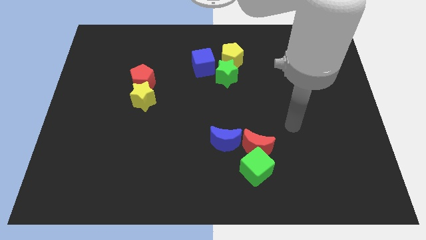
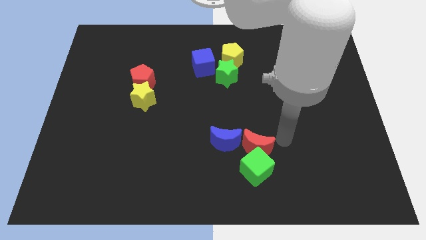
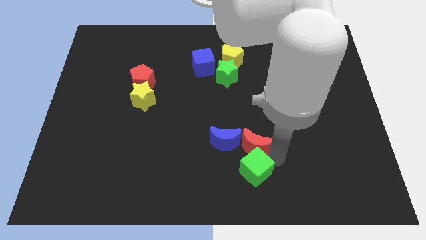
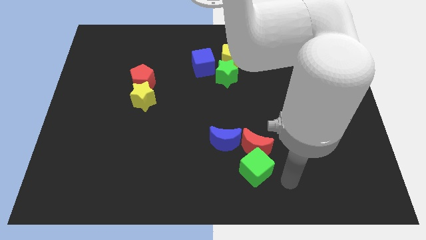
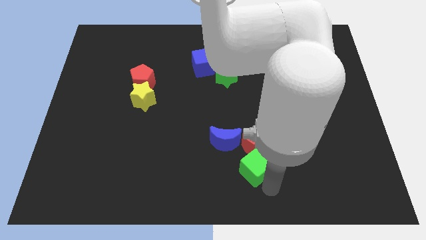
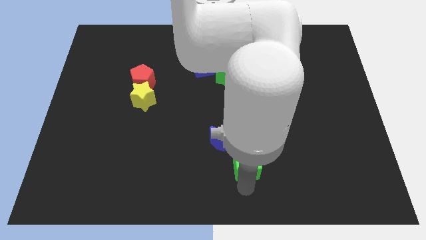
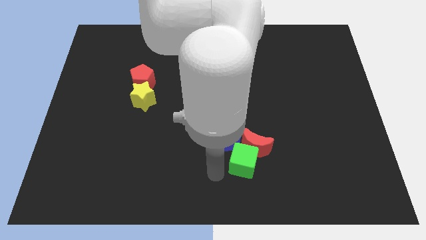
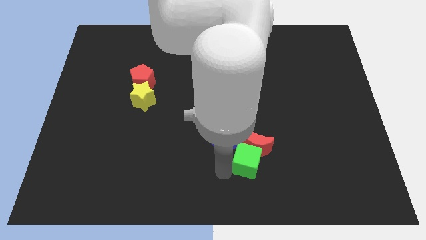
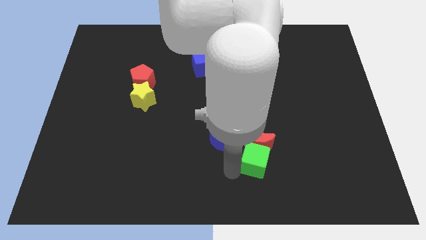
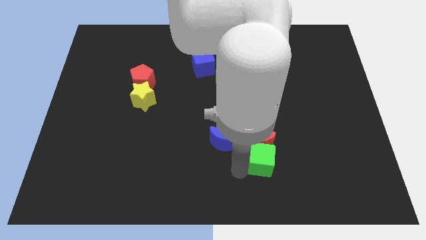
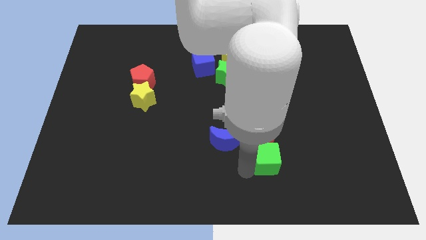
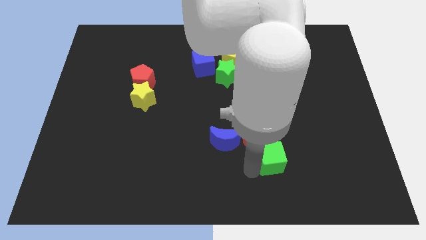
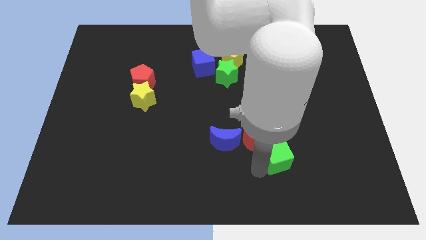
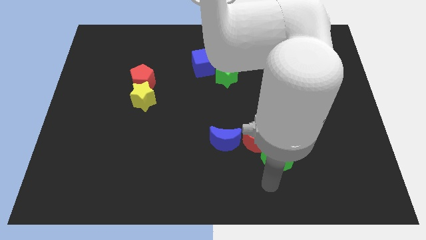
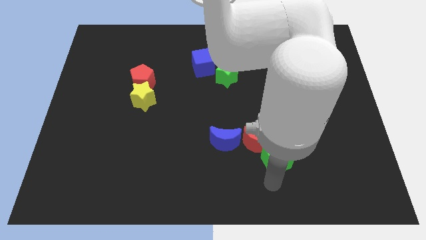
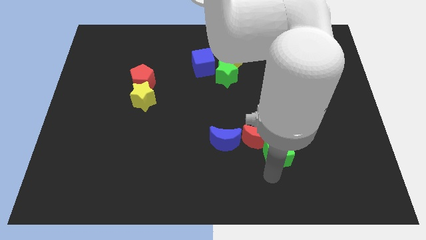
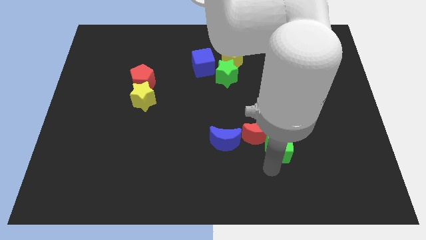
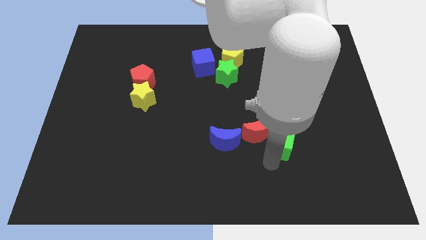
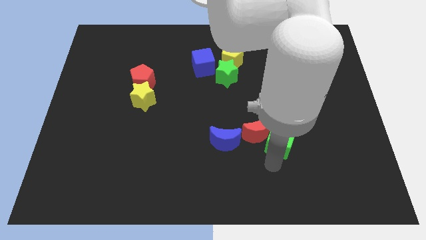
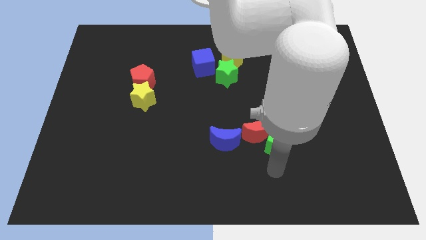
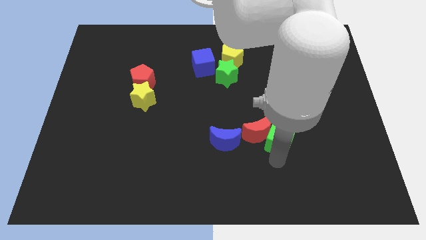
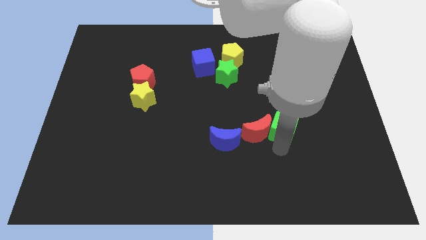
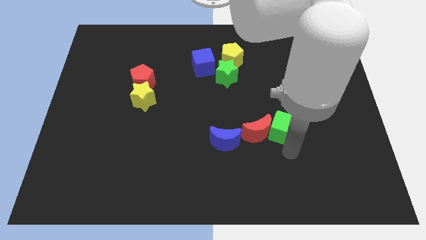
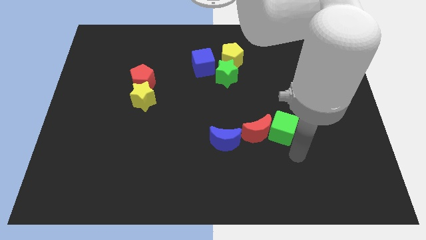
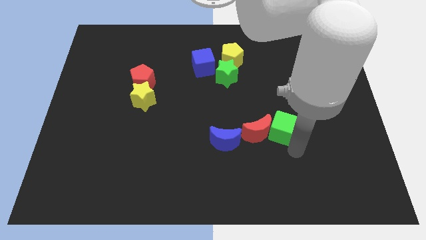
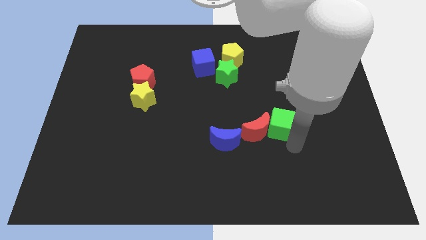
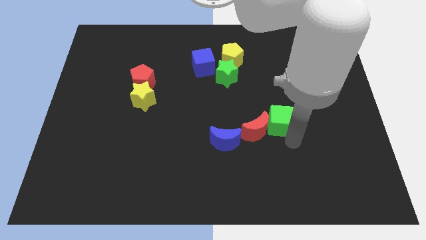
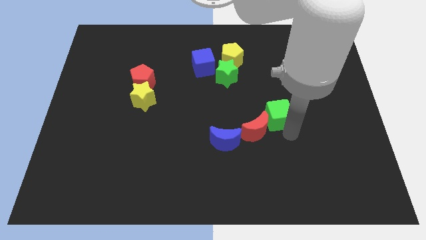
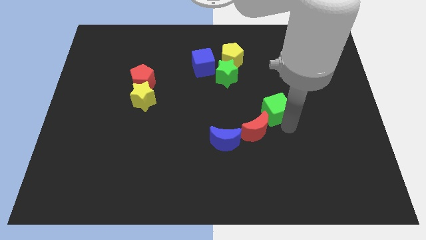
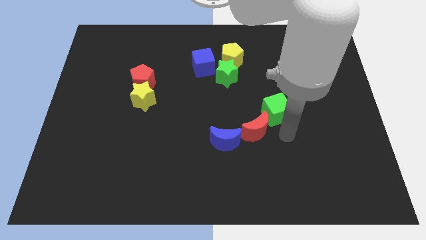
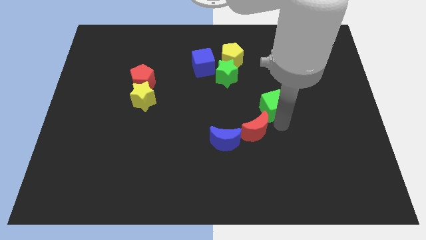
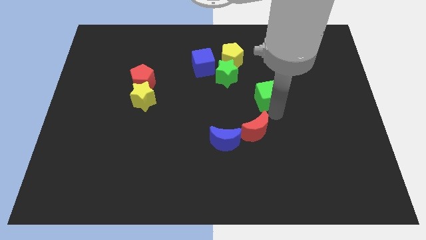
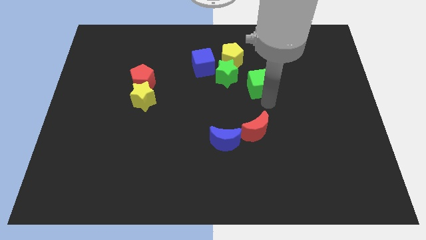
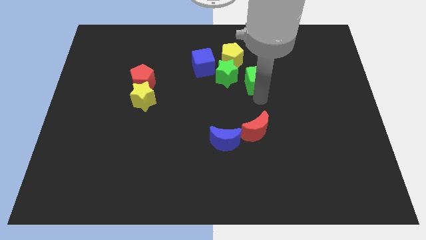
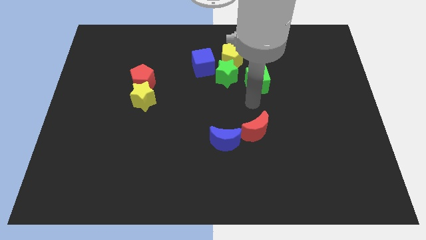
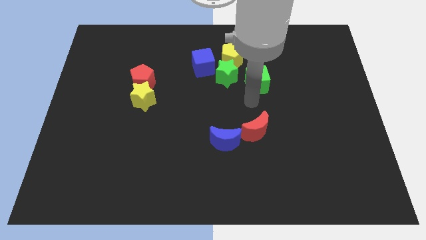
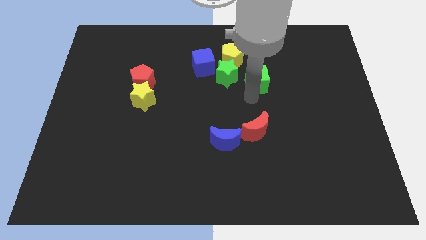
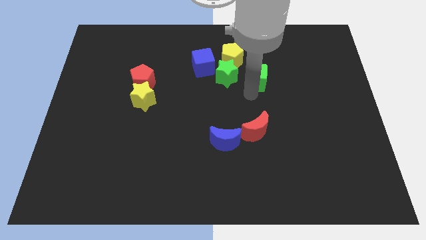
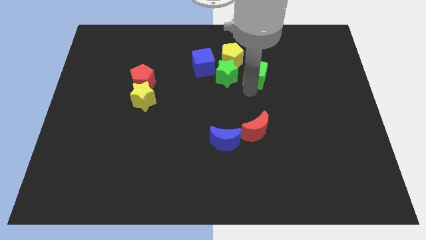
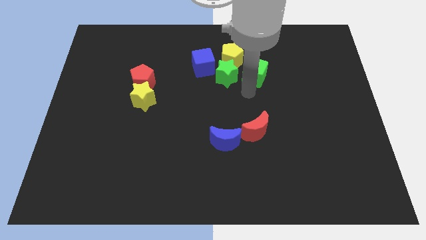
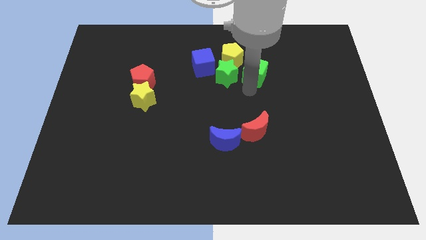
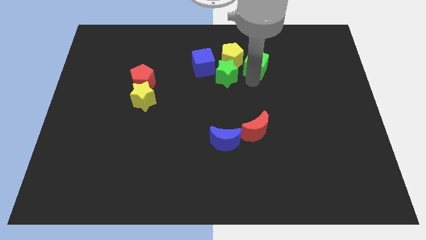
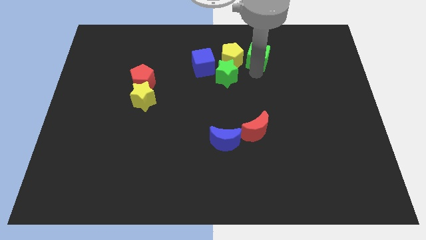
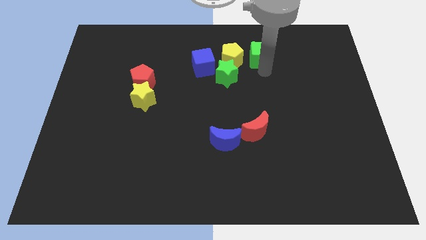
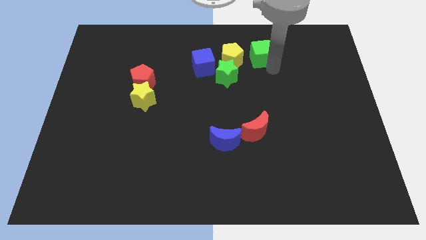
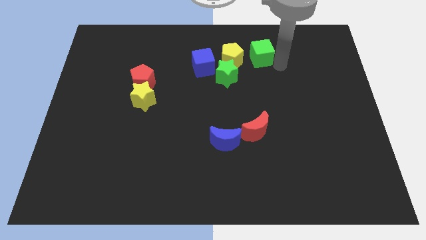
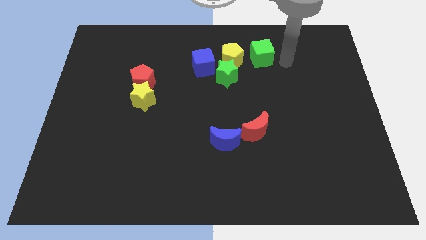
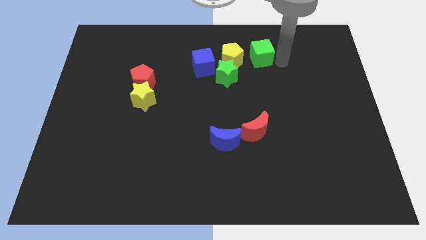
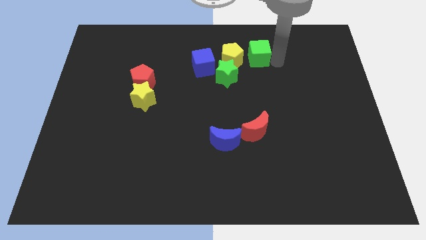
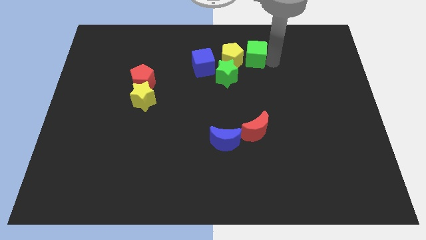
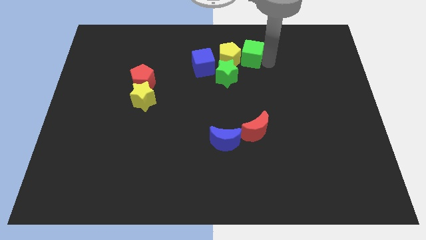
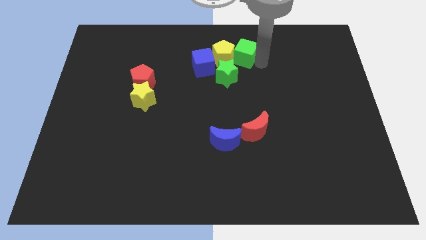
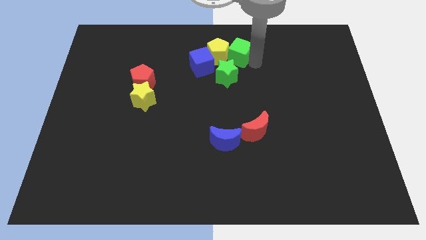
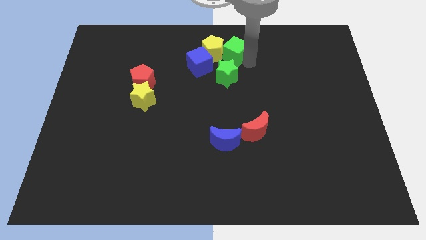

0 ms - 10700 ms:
put the green cube to the top
